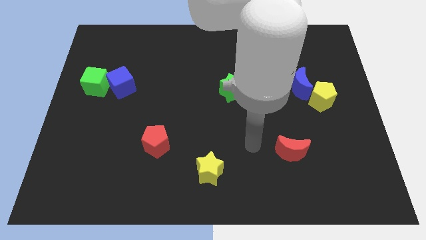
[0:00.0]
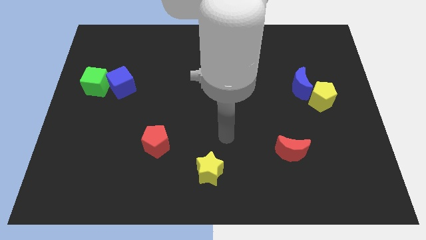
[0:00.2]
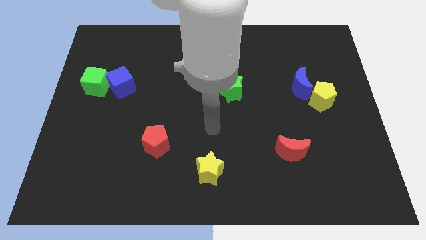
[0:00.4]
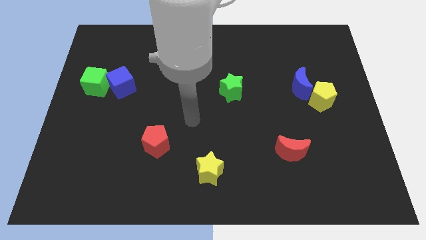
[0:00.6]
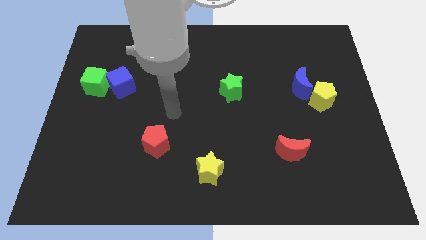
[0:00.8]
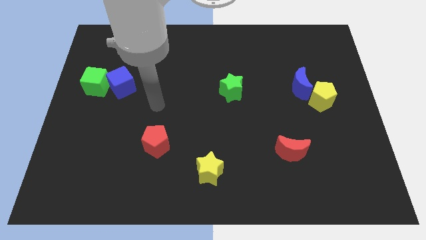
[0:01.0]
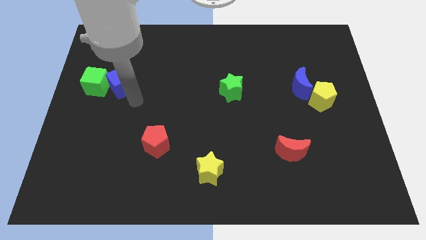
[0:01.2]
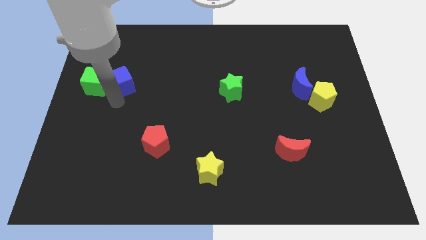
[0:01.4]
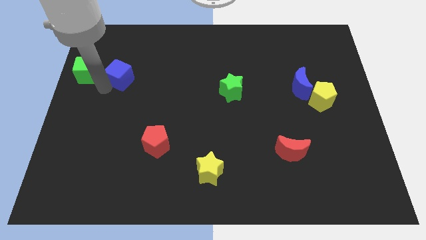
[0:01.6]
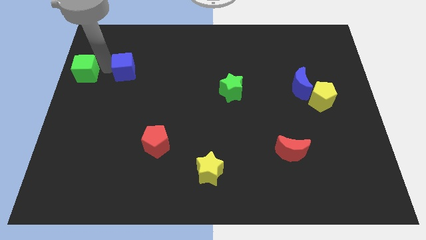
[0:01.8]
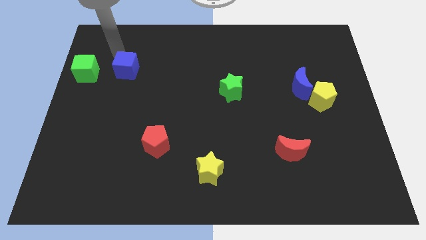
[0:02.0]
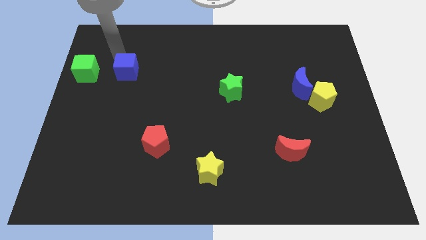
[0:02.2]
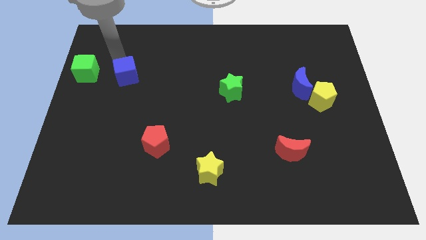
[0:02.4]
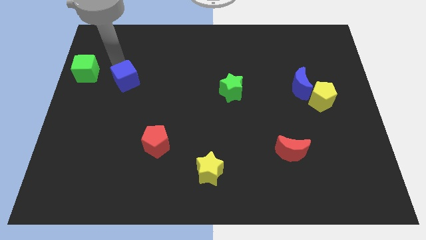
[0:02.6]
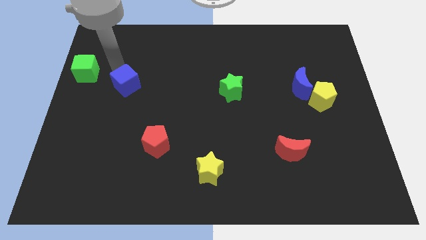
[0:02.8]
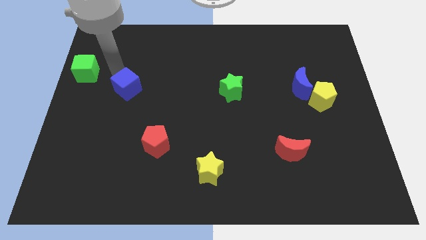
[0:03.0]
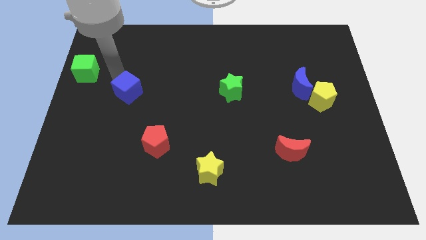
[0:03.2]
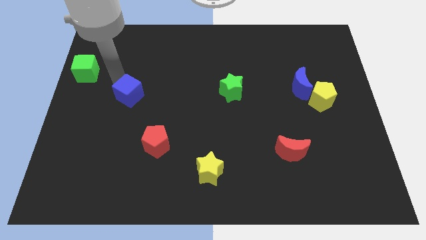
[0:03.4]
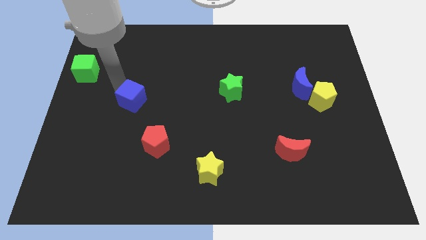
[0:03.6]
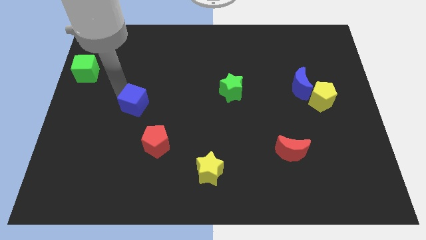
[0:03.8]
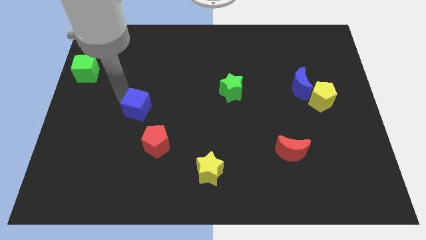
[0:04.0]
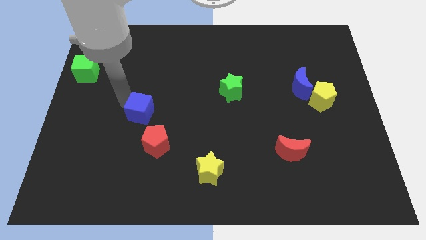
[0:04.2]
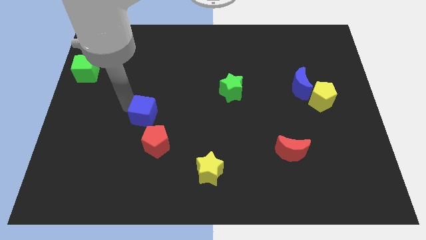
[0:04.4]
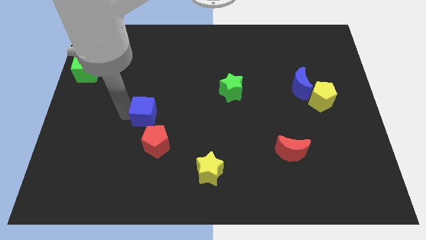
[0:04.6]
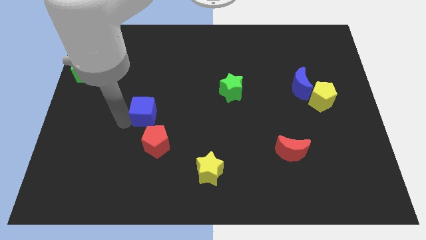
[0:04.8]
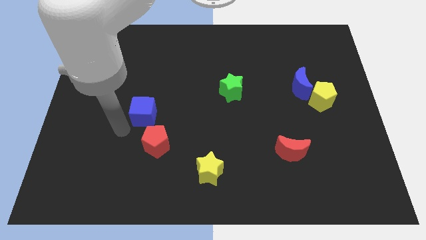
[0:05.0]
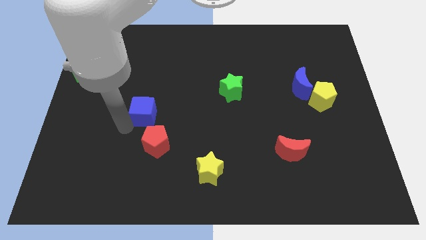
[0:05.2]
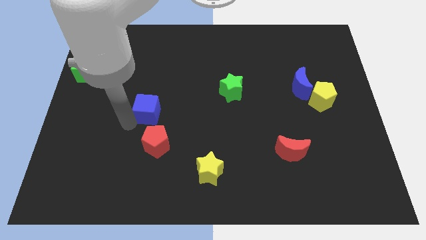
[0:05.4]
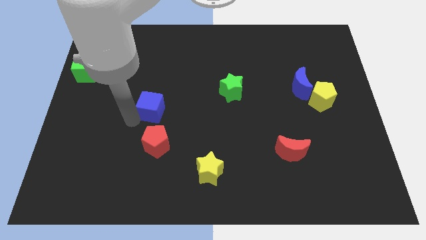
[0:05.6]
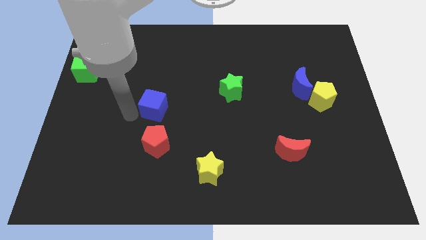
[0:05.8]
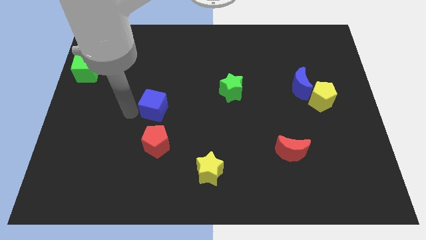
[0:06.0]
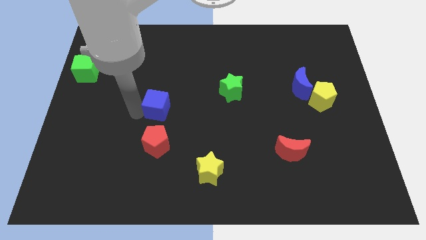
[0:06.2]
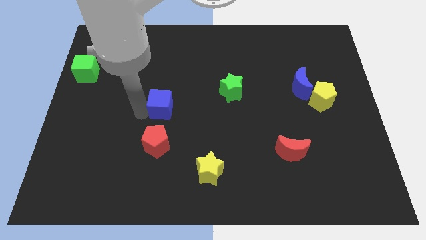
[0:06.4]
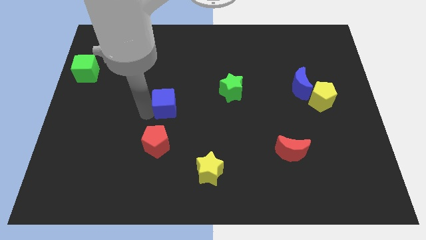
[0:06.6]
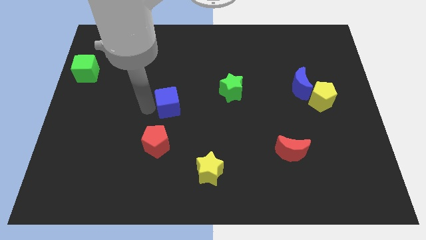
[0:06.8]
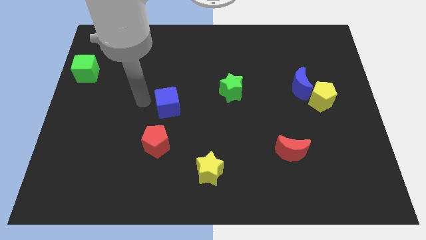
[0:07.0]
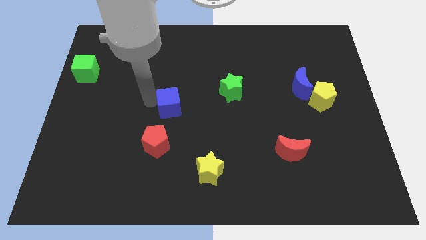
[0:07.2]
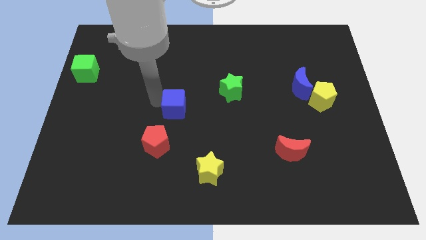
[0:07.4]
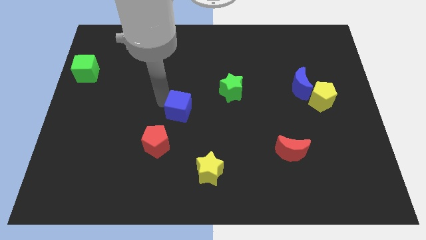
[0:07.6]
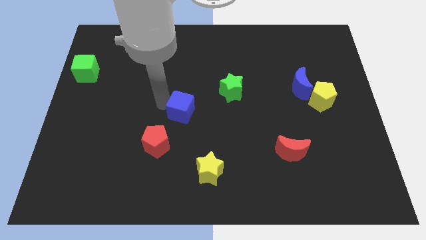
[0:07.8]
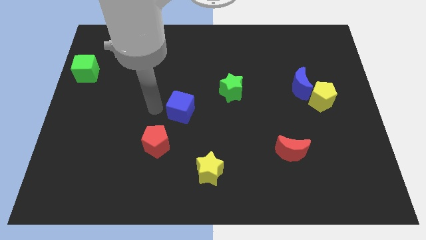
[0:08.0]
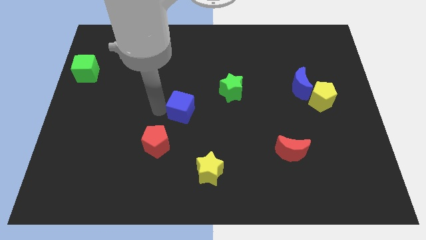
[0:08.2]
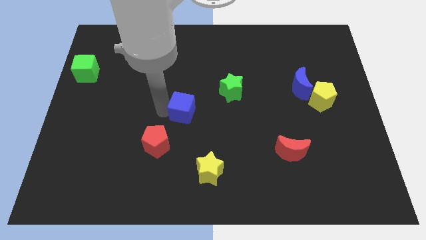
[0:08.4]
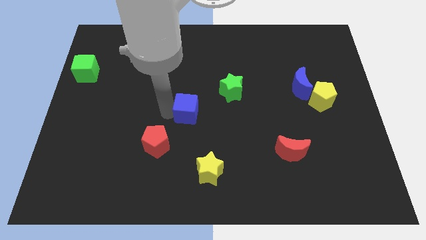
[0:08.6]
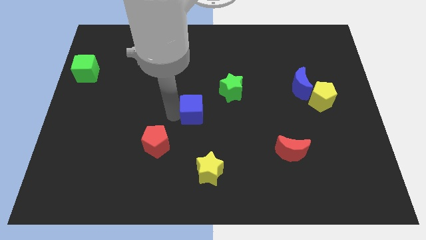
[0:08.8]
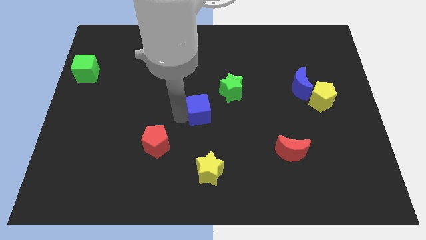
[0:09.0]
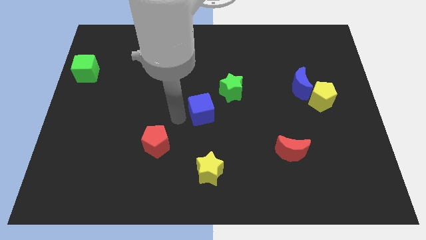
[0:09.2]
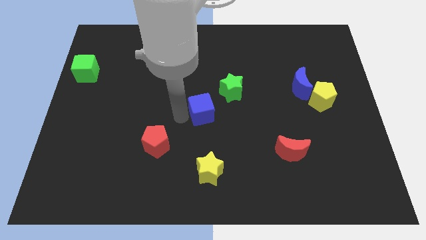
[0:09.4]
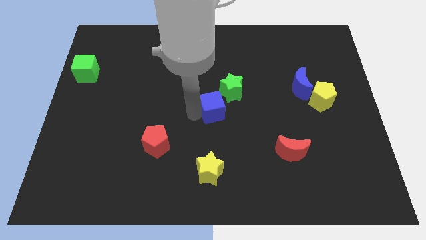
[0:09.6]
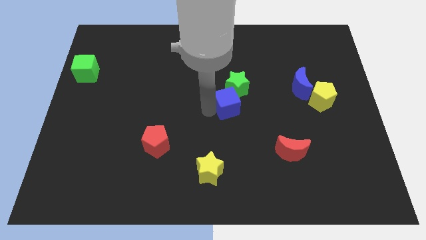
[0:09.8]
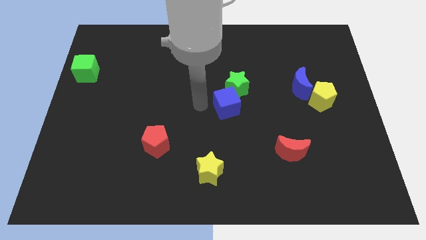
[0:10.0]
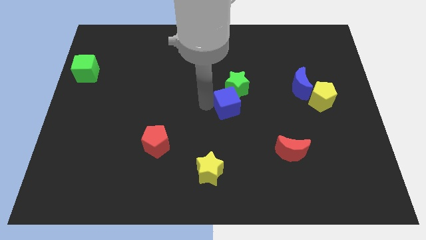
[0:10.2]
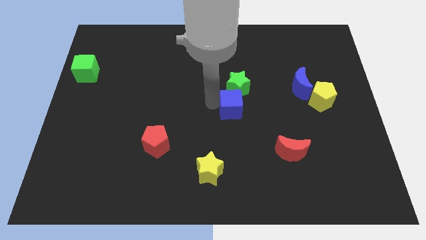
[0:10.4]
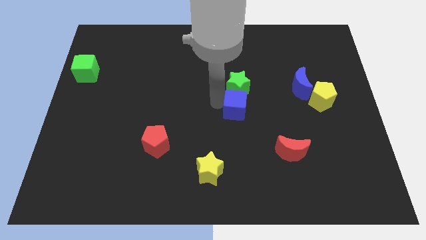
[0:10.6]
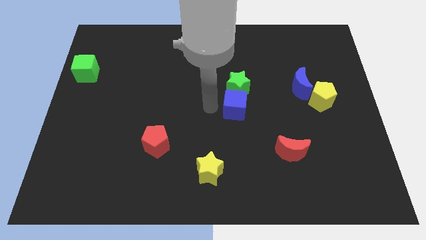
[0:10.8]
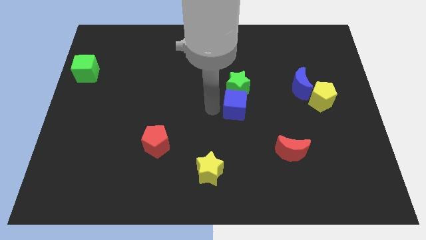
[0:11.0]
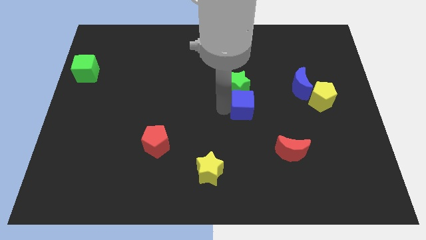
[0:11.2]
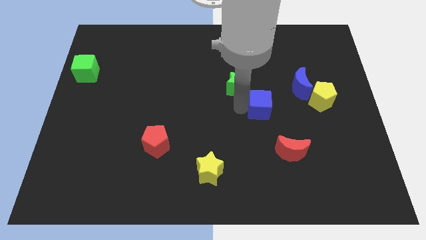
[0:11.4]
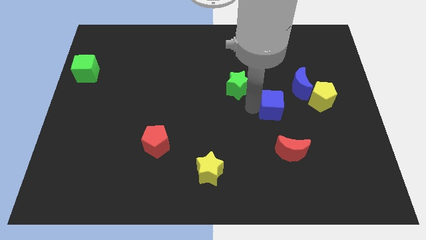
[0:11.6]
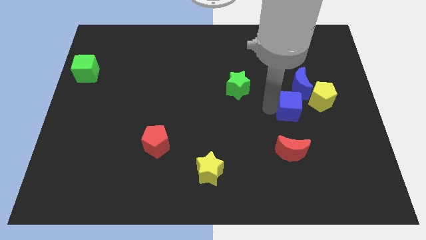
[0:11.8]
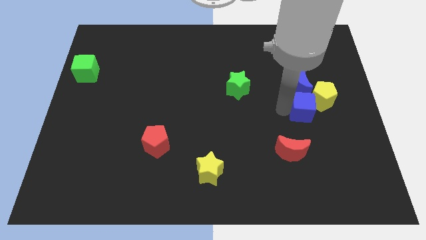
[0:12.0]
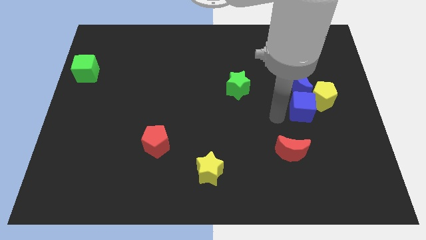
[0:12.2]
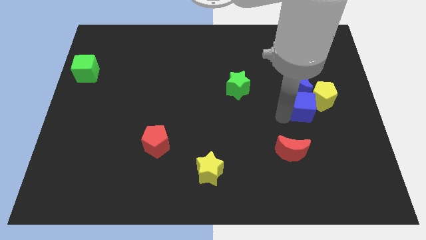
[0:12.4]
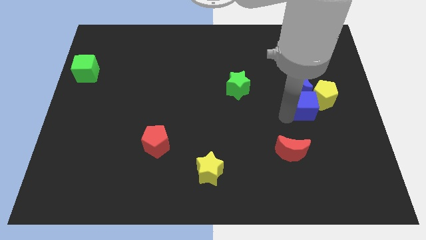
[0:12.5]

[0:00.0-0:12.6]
move the blue cube to the bottom right of the blue moon

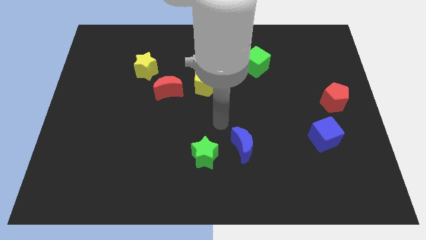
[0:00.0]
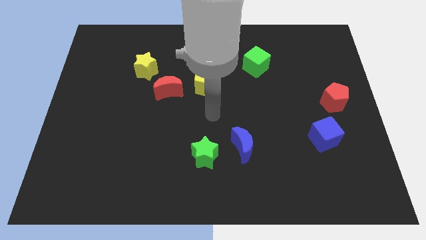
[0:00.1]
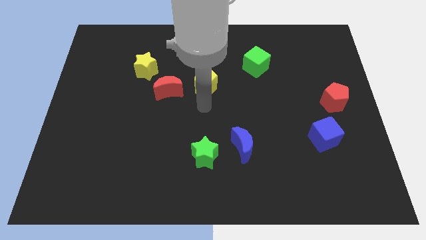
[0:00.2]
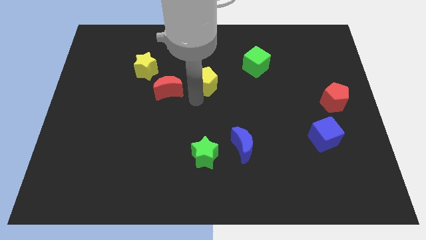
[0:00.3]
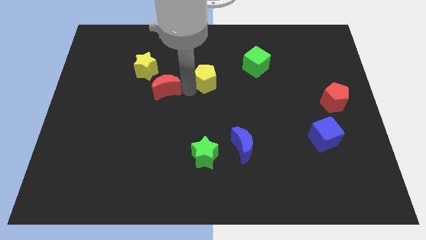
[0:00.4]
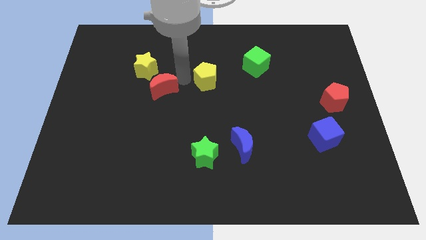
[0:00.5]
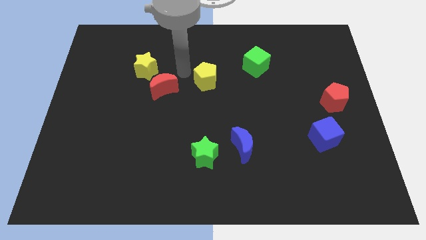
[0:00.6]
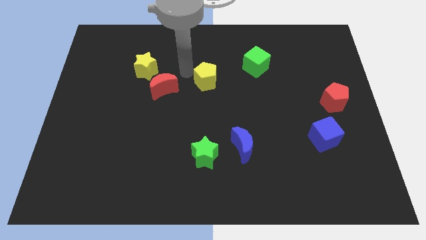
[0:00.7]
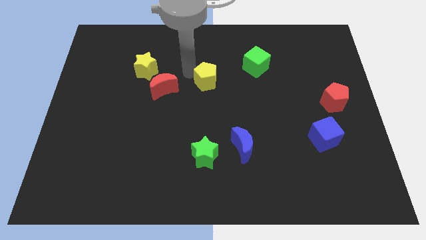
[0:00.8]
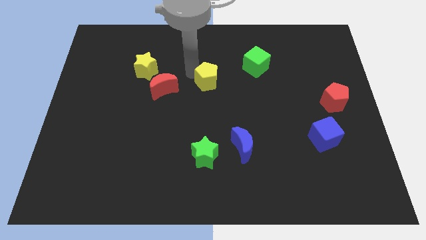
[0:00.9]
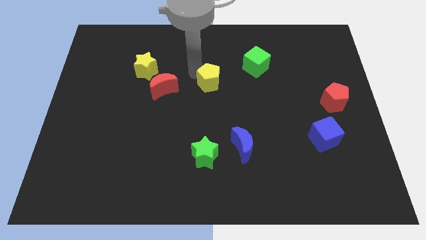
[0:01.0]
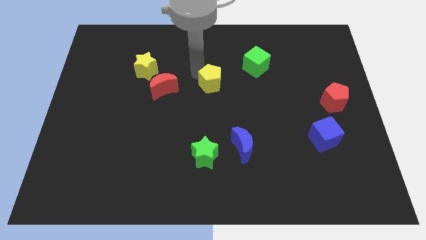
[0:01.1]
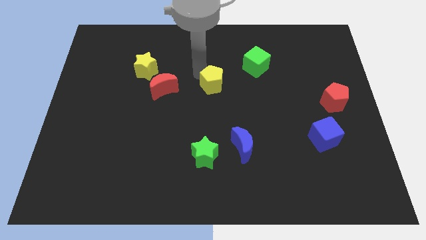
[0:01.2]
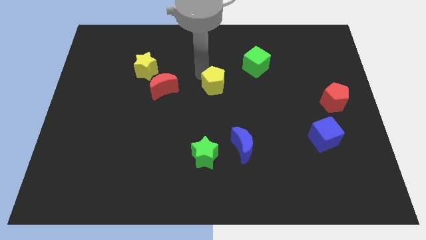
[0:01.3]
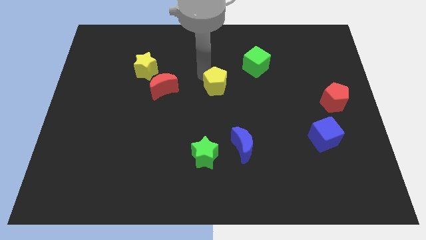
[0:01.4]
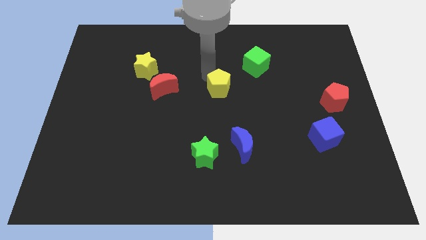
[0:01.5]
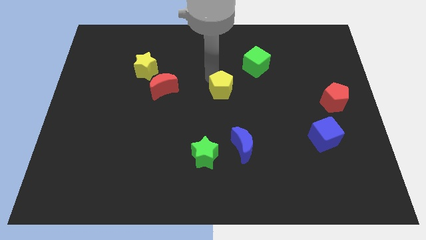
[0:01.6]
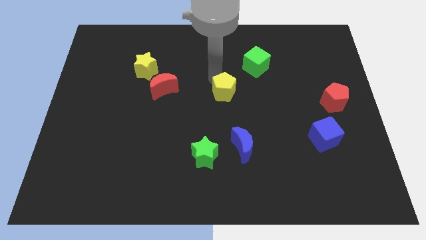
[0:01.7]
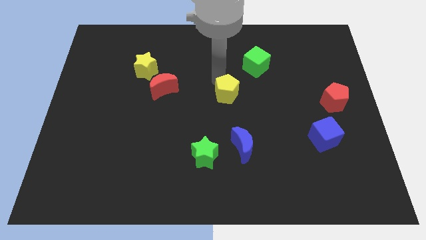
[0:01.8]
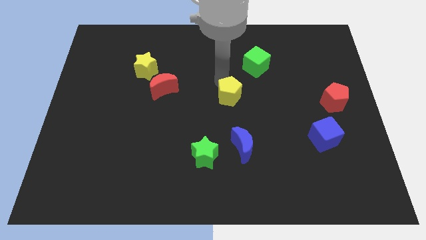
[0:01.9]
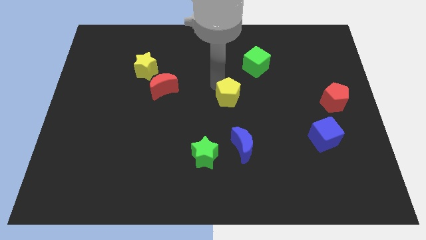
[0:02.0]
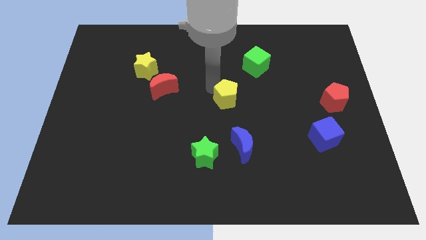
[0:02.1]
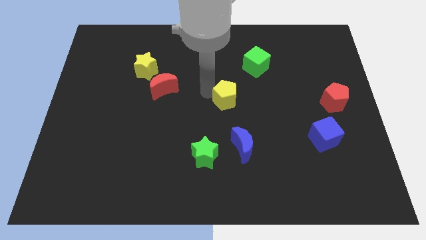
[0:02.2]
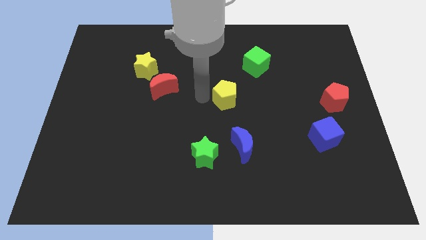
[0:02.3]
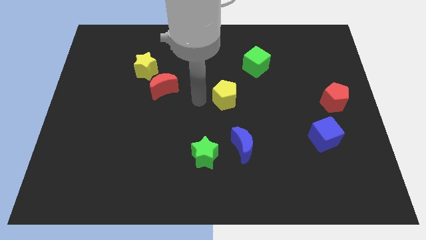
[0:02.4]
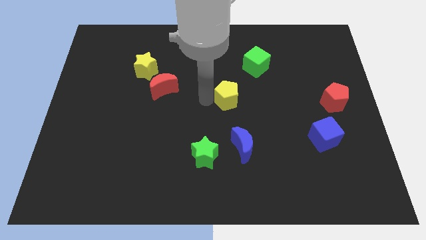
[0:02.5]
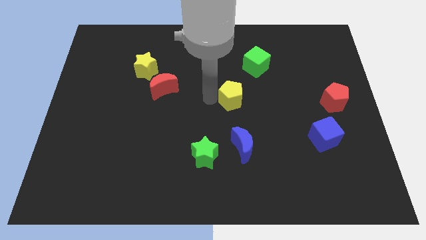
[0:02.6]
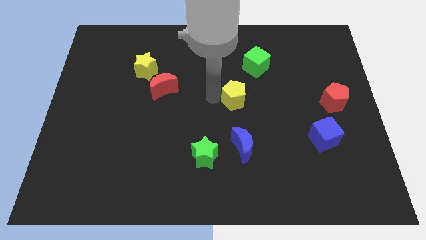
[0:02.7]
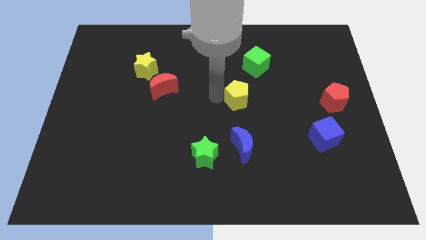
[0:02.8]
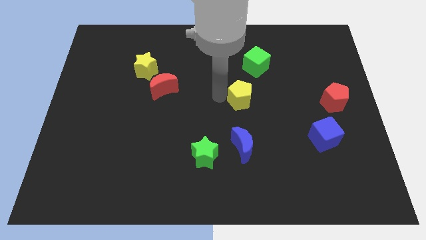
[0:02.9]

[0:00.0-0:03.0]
push the yellow pentagon below the green cube
